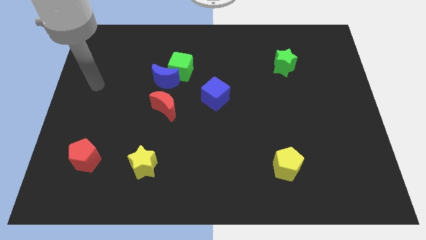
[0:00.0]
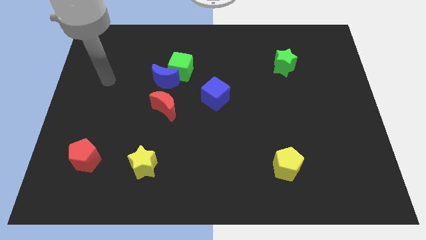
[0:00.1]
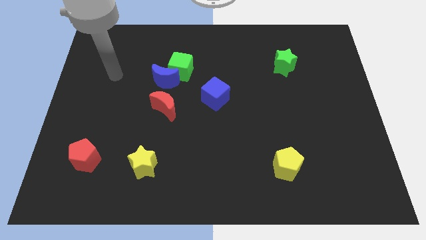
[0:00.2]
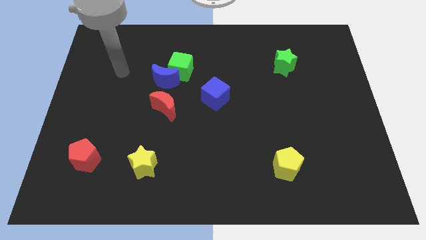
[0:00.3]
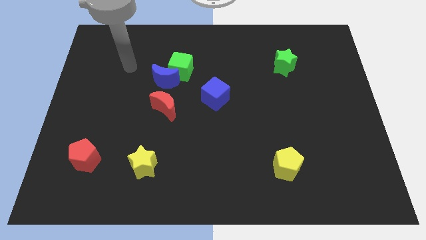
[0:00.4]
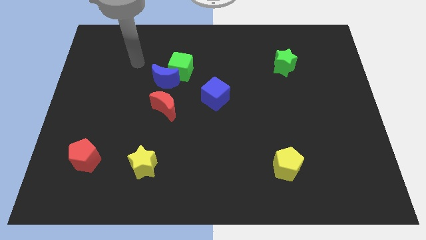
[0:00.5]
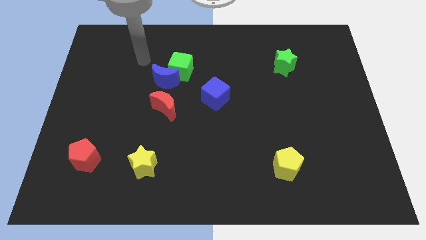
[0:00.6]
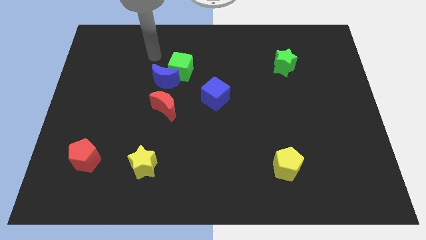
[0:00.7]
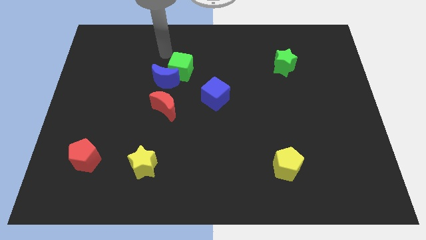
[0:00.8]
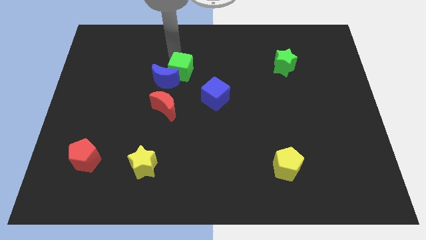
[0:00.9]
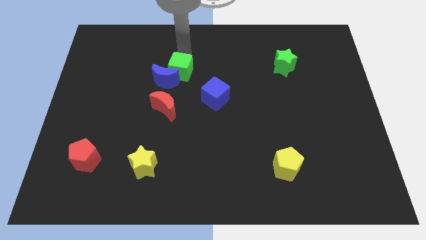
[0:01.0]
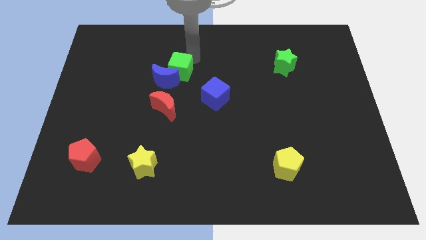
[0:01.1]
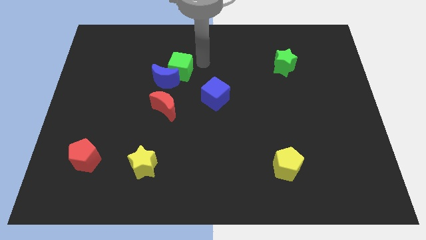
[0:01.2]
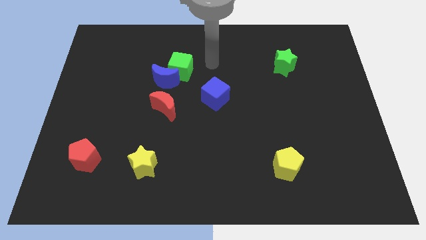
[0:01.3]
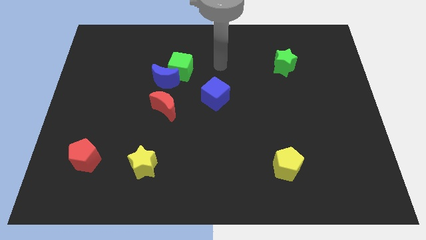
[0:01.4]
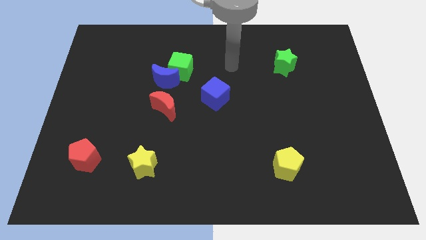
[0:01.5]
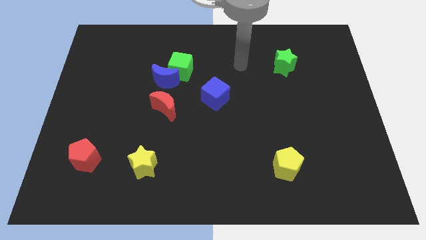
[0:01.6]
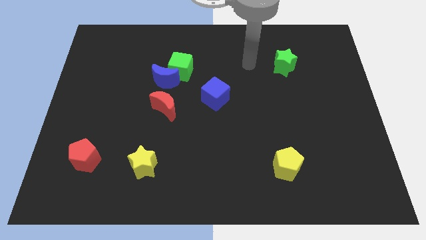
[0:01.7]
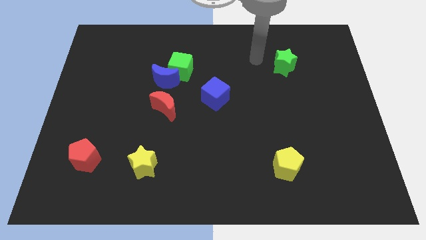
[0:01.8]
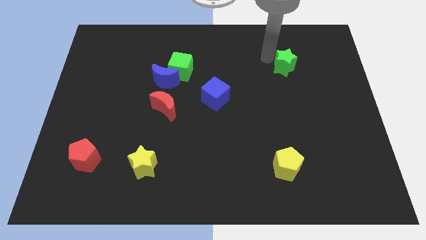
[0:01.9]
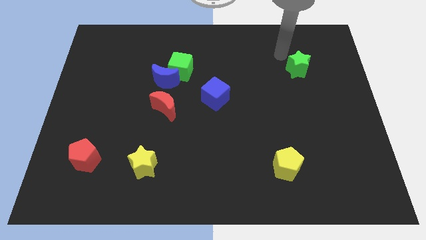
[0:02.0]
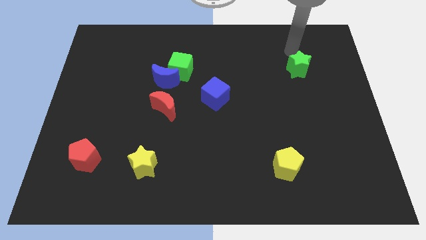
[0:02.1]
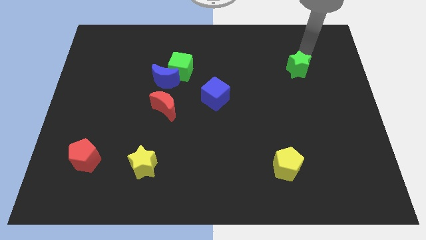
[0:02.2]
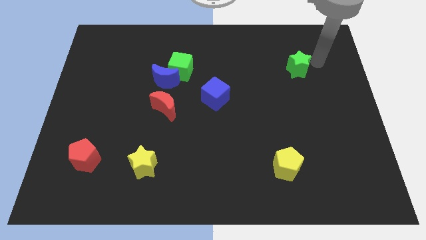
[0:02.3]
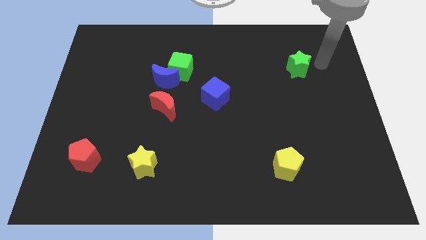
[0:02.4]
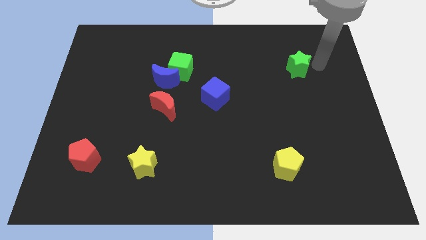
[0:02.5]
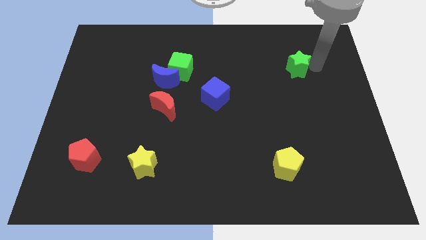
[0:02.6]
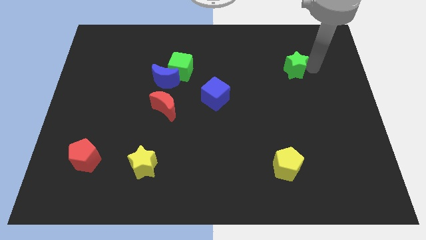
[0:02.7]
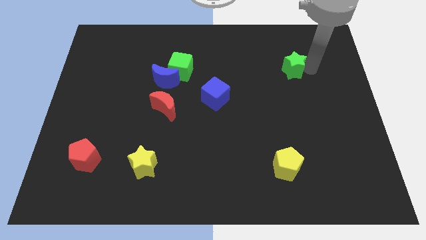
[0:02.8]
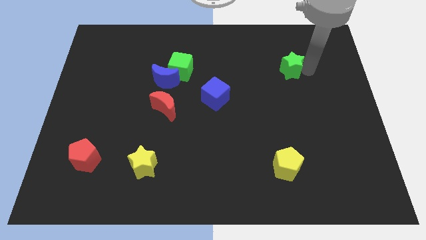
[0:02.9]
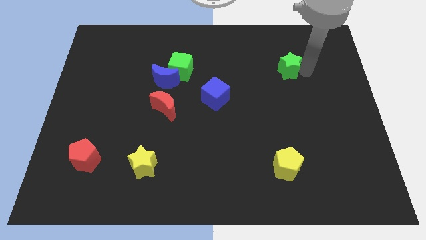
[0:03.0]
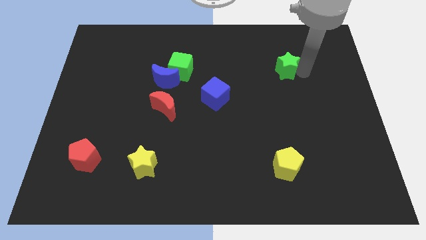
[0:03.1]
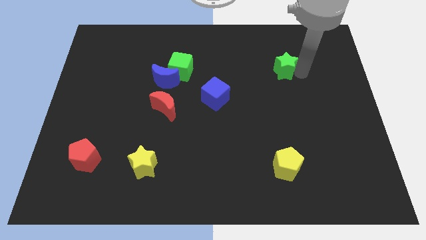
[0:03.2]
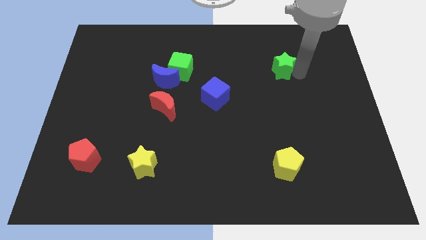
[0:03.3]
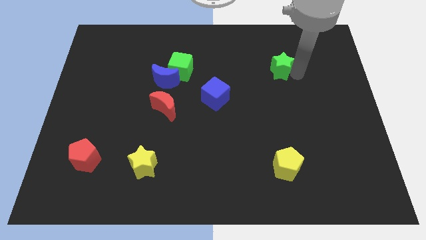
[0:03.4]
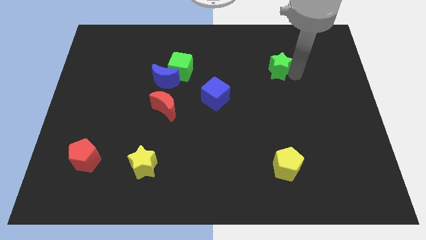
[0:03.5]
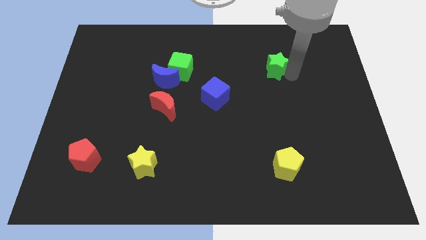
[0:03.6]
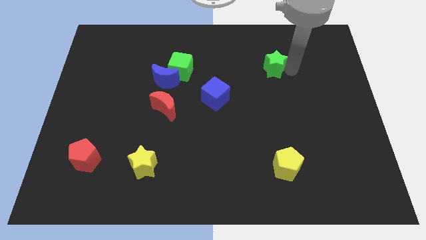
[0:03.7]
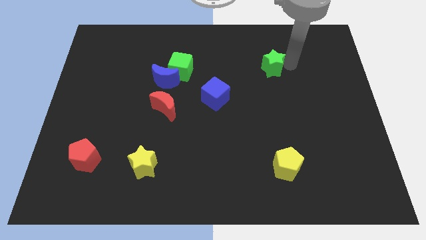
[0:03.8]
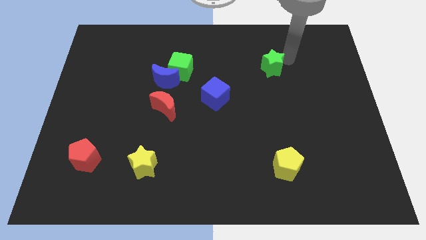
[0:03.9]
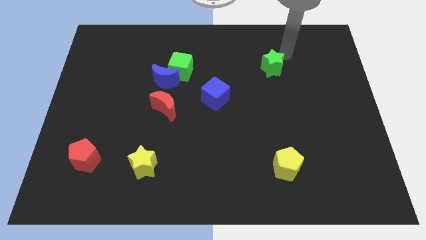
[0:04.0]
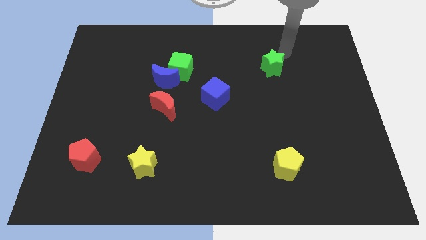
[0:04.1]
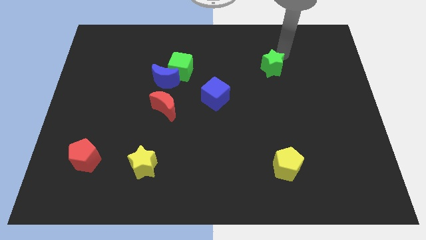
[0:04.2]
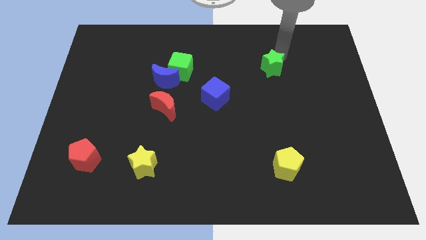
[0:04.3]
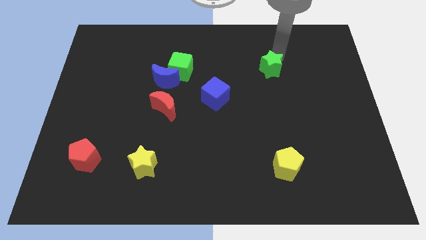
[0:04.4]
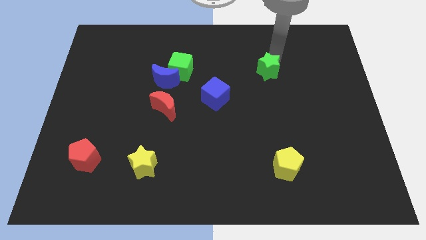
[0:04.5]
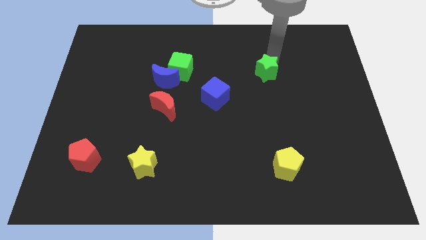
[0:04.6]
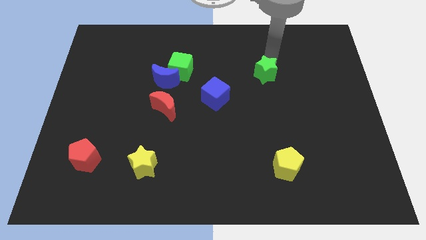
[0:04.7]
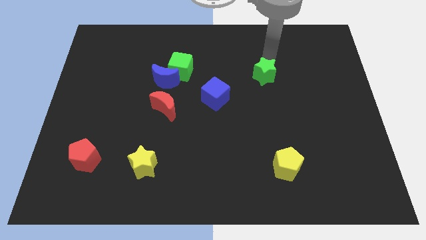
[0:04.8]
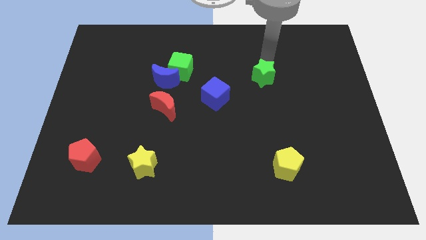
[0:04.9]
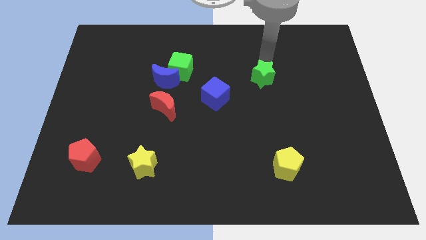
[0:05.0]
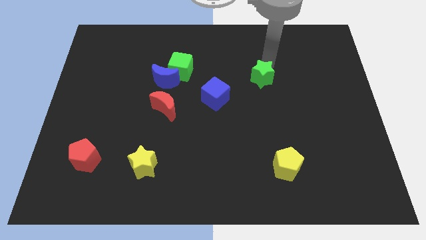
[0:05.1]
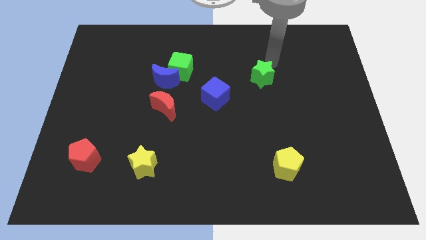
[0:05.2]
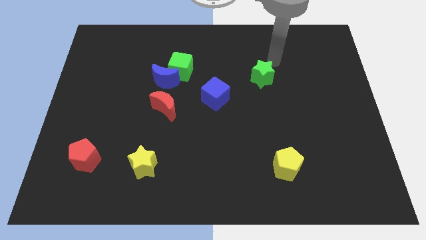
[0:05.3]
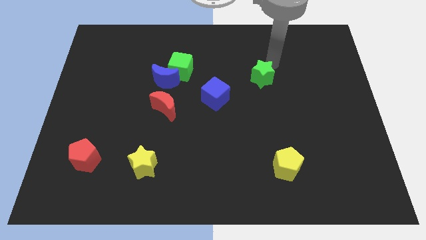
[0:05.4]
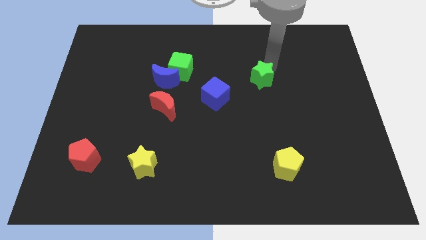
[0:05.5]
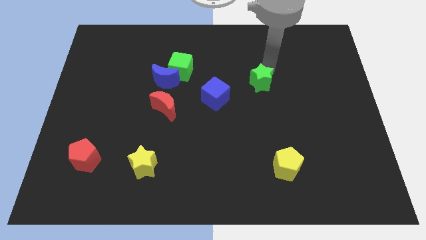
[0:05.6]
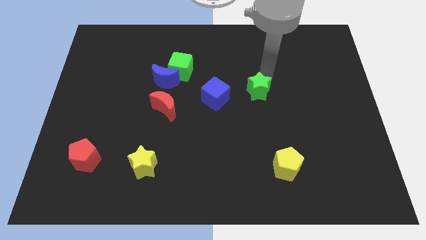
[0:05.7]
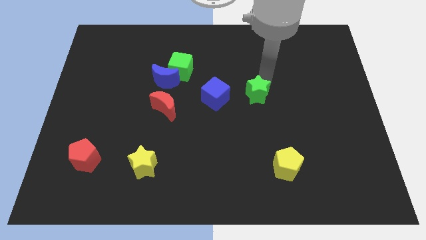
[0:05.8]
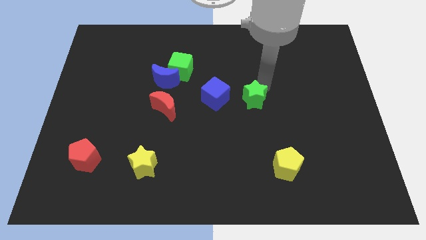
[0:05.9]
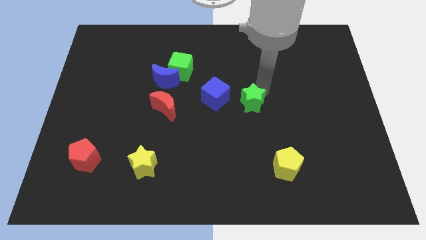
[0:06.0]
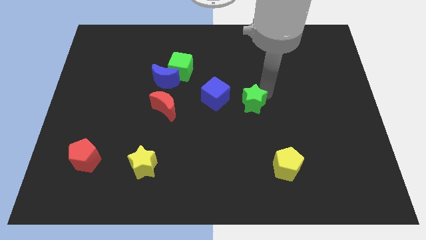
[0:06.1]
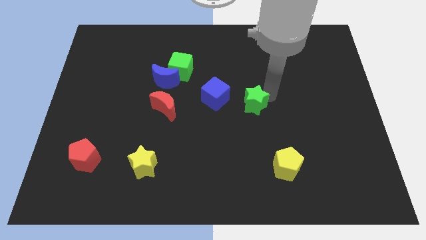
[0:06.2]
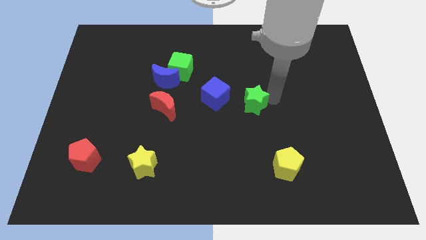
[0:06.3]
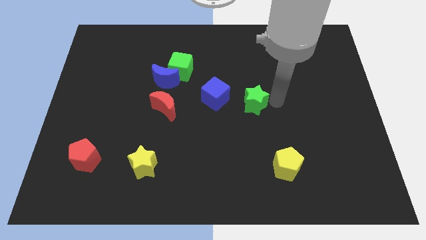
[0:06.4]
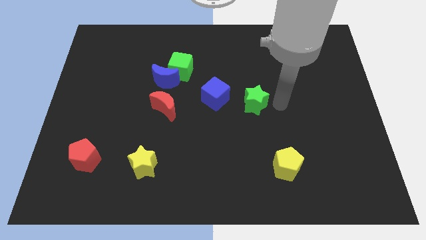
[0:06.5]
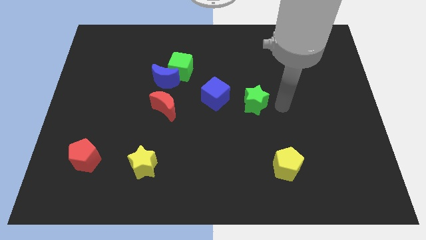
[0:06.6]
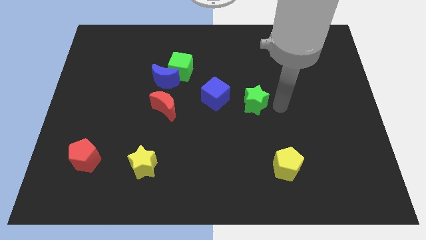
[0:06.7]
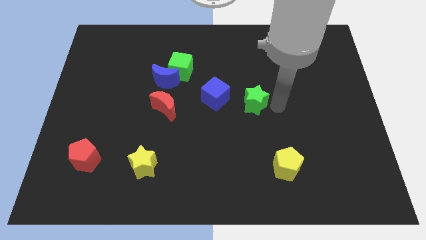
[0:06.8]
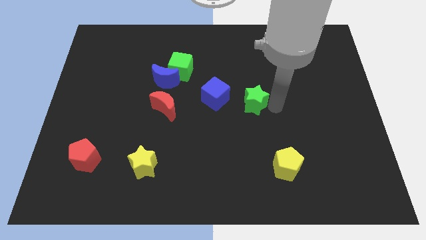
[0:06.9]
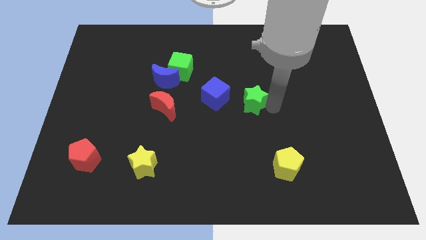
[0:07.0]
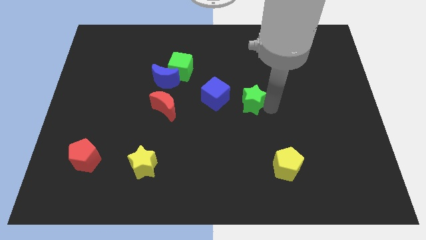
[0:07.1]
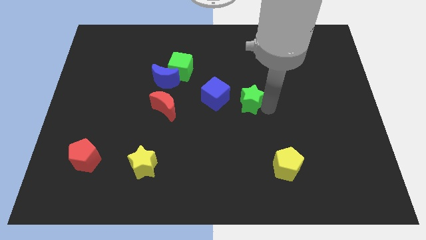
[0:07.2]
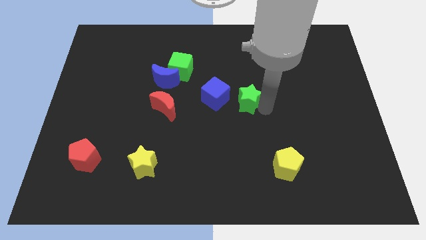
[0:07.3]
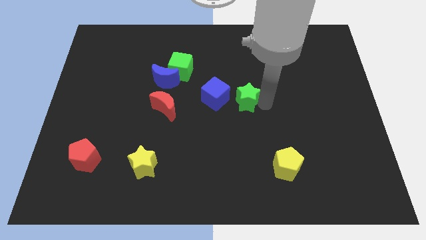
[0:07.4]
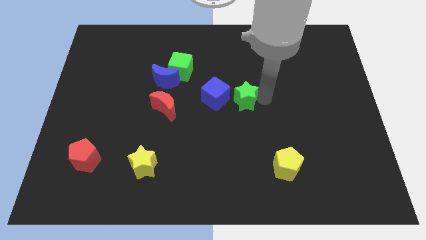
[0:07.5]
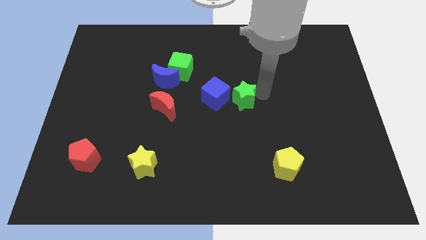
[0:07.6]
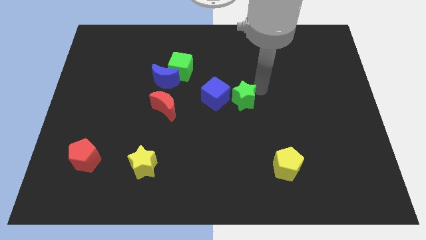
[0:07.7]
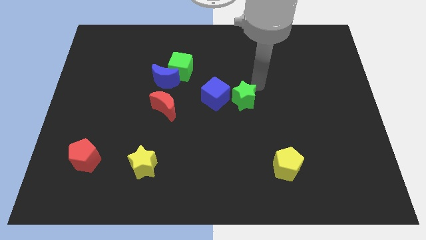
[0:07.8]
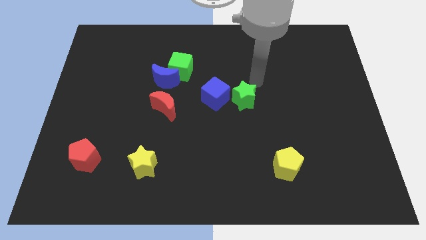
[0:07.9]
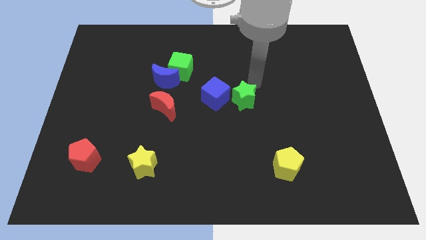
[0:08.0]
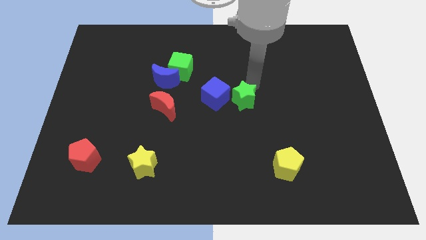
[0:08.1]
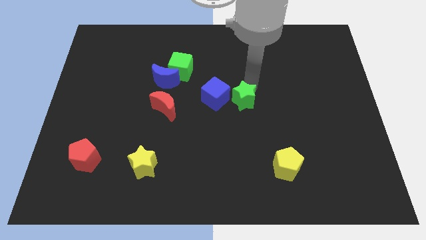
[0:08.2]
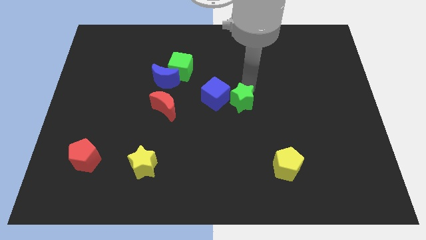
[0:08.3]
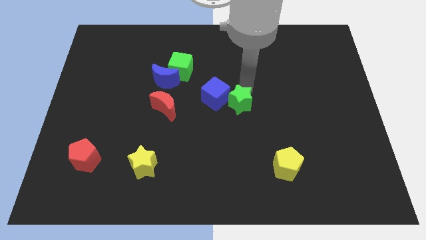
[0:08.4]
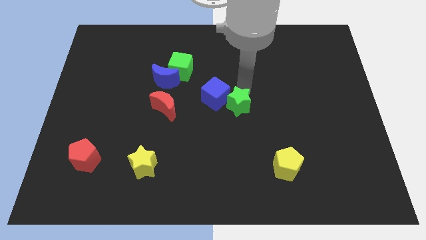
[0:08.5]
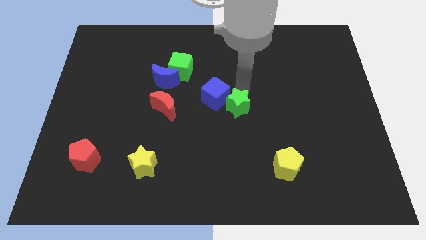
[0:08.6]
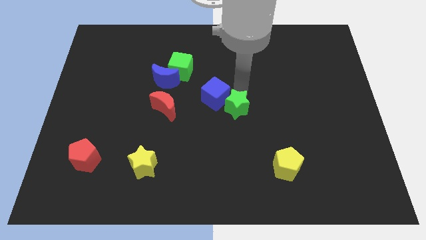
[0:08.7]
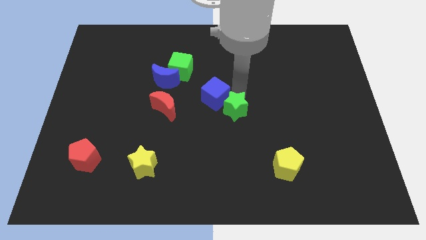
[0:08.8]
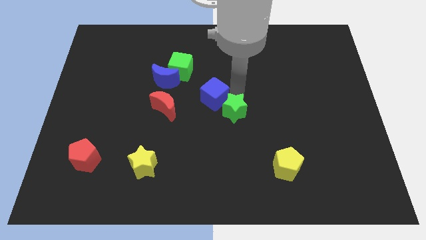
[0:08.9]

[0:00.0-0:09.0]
slide the green star diagonally downwards and left
